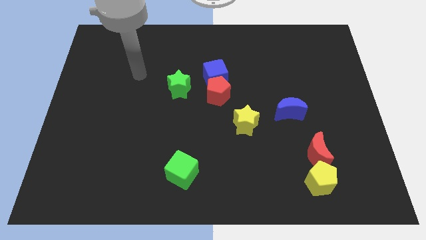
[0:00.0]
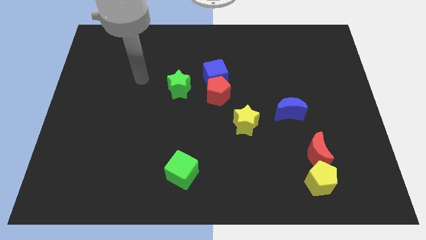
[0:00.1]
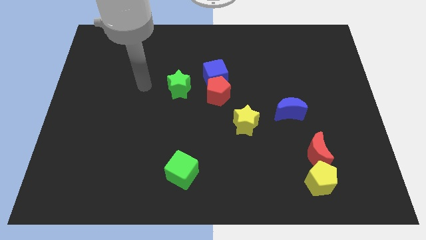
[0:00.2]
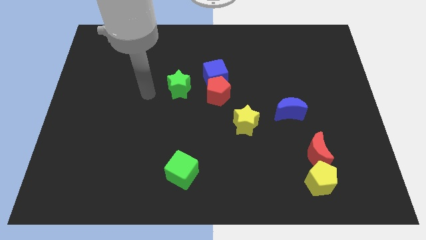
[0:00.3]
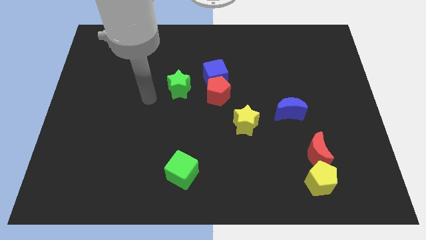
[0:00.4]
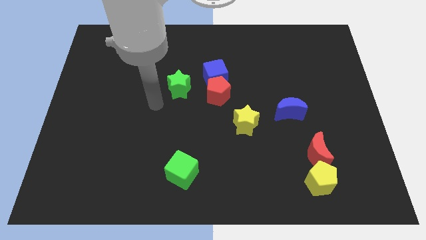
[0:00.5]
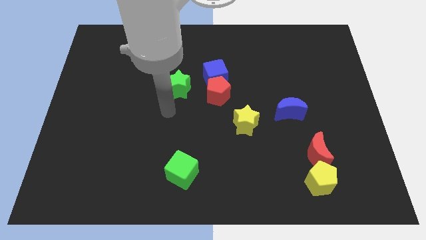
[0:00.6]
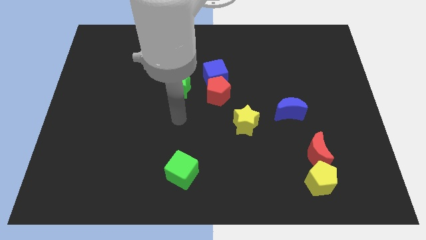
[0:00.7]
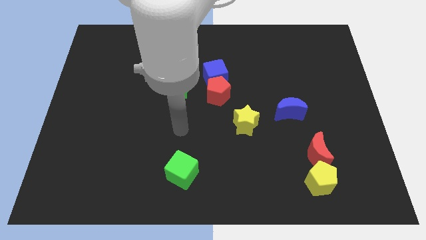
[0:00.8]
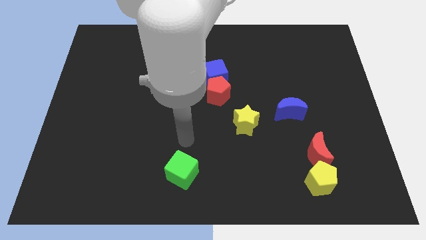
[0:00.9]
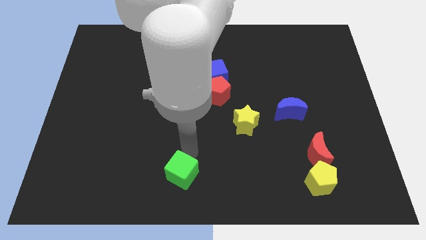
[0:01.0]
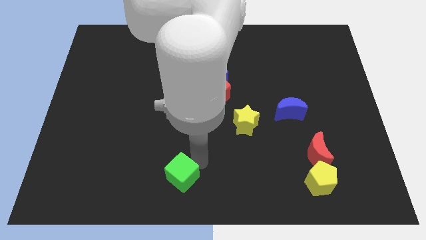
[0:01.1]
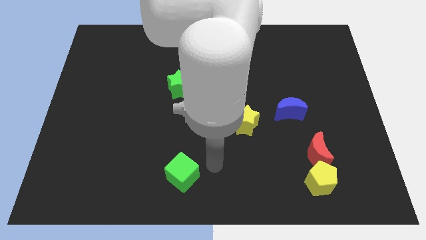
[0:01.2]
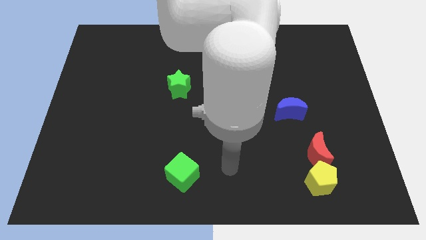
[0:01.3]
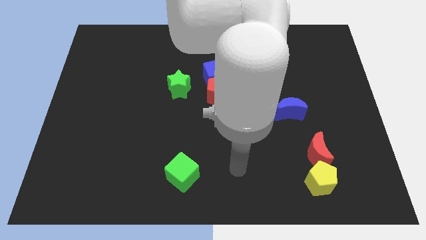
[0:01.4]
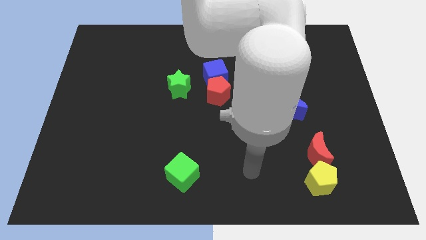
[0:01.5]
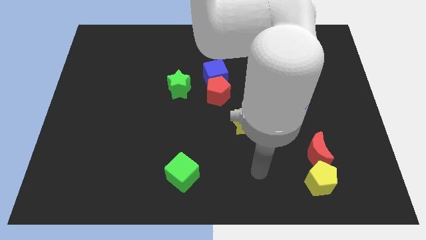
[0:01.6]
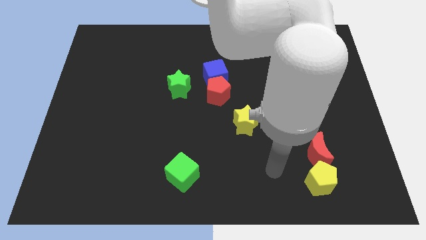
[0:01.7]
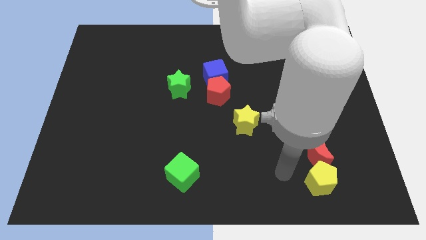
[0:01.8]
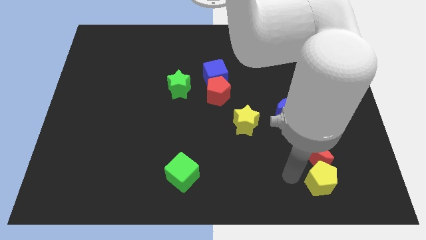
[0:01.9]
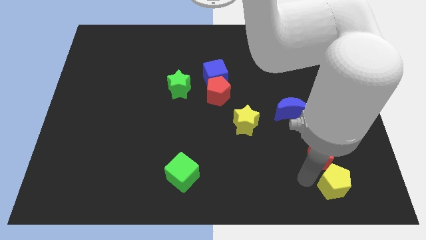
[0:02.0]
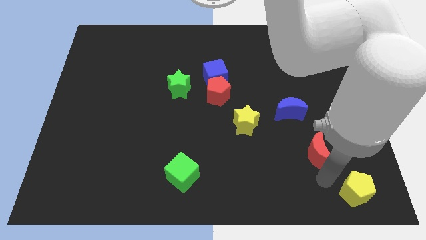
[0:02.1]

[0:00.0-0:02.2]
pull the red moon apart from the yellow pentagon

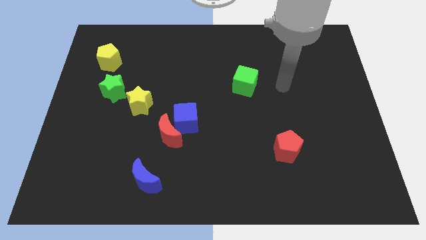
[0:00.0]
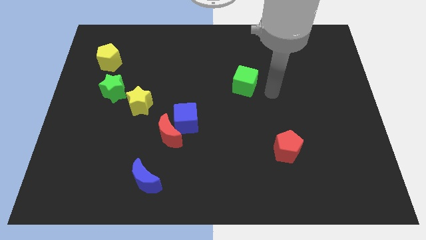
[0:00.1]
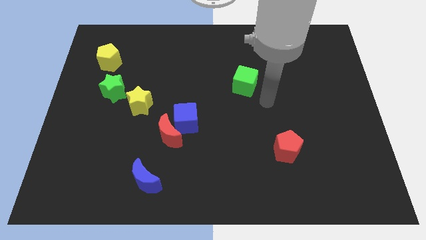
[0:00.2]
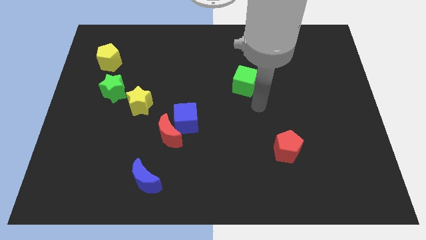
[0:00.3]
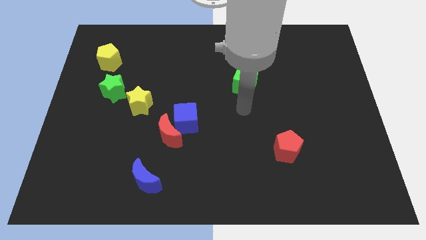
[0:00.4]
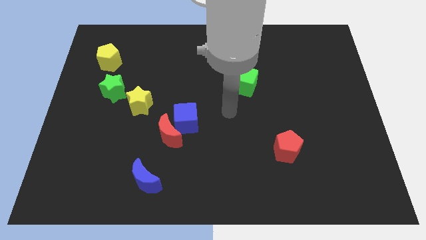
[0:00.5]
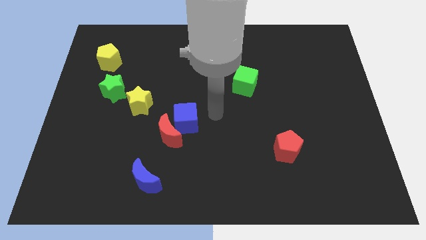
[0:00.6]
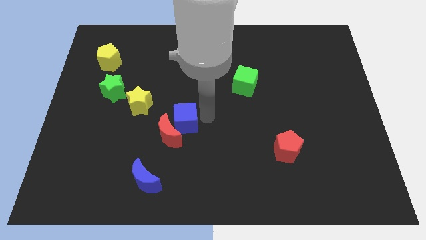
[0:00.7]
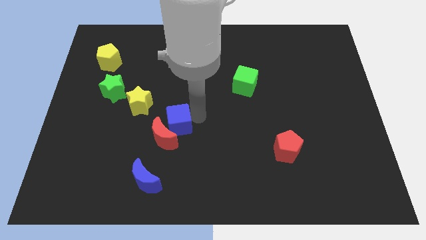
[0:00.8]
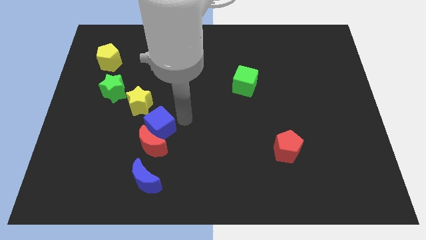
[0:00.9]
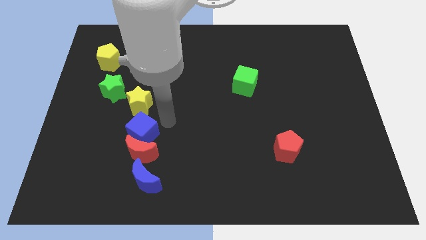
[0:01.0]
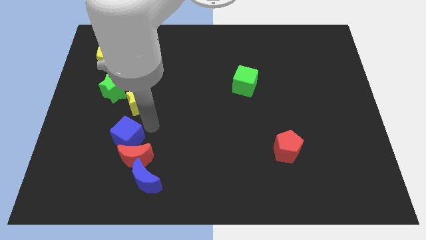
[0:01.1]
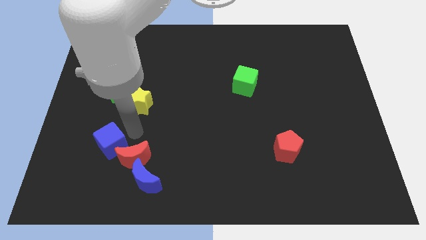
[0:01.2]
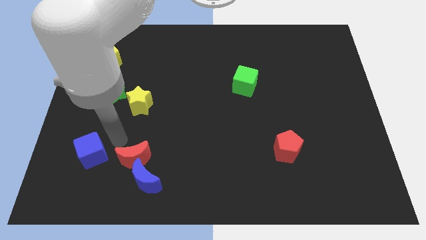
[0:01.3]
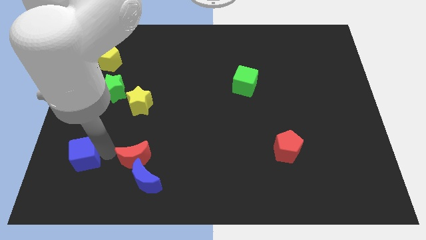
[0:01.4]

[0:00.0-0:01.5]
pull the red moon apart from the blue cube

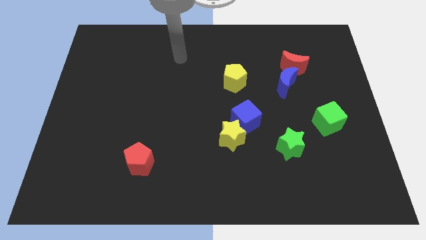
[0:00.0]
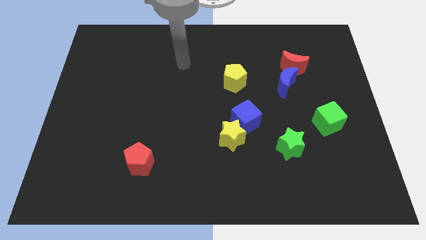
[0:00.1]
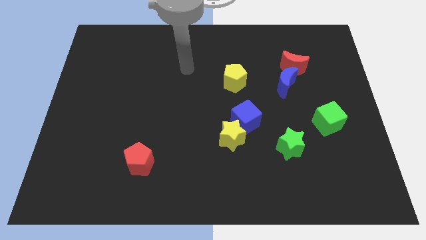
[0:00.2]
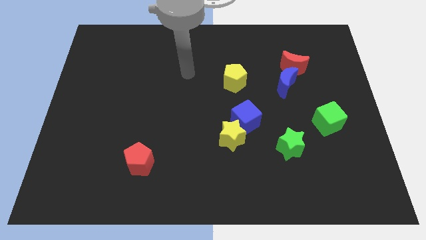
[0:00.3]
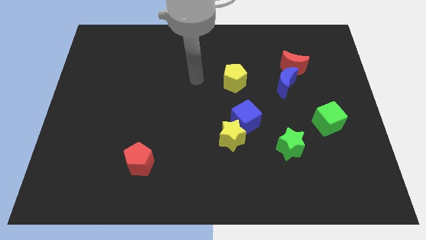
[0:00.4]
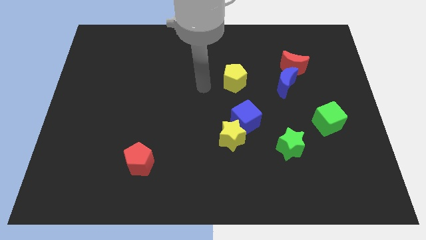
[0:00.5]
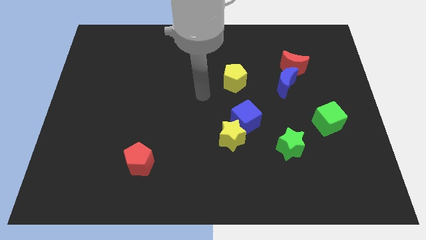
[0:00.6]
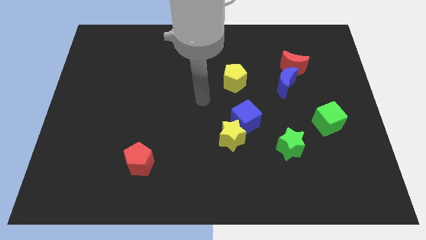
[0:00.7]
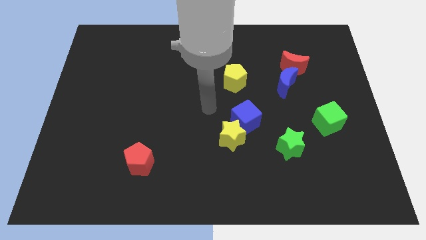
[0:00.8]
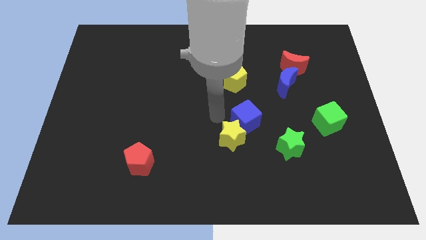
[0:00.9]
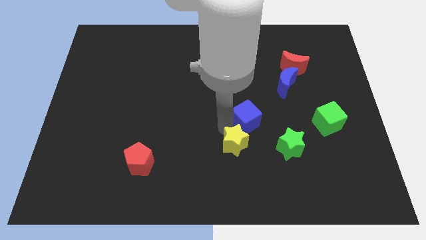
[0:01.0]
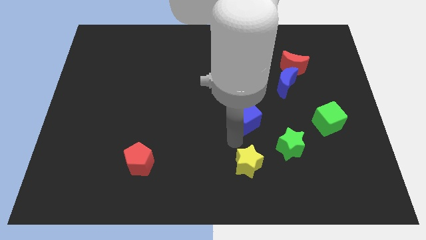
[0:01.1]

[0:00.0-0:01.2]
pull the blue cube apart from the yellow star

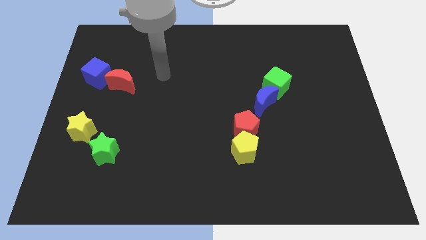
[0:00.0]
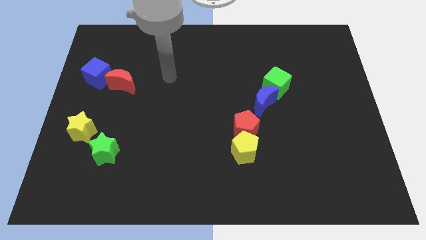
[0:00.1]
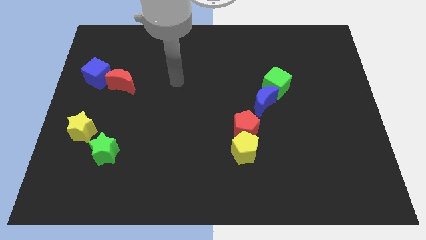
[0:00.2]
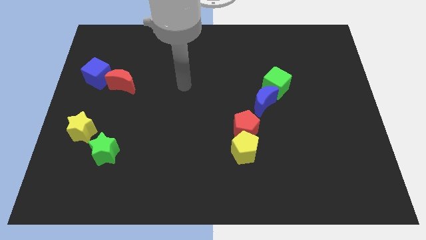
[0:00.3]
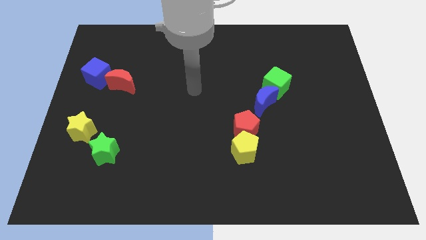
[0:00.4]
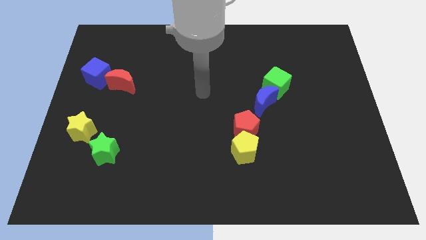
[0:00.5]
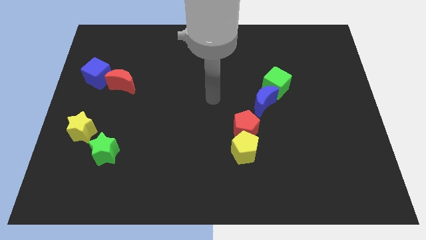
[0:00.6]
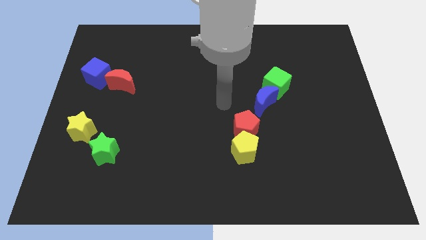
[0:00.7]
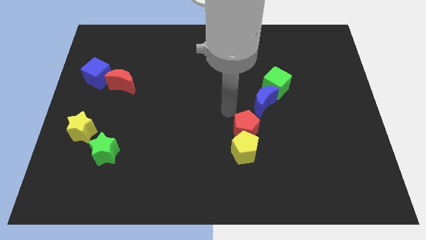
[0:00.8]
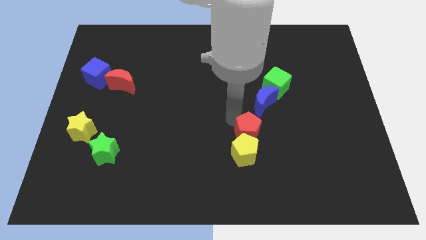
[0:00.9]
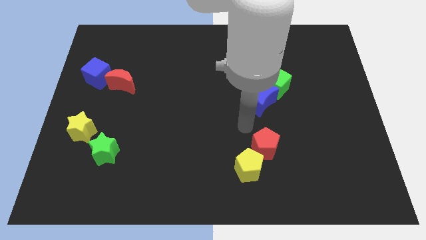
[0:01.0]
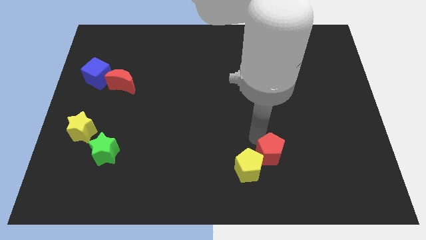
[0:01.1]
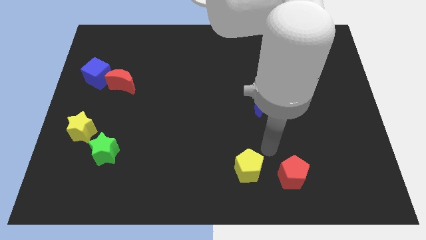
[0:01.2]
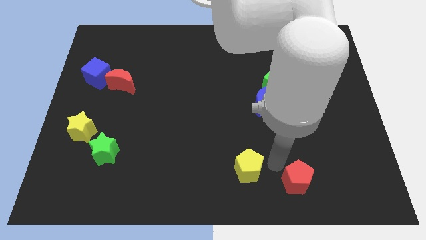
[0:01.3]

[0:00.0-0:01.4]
move the yellow pentagon away from the red pentagon

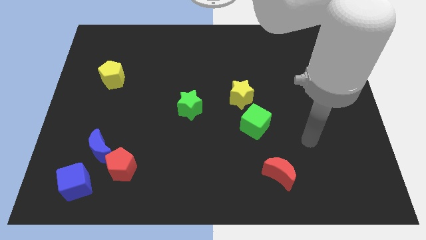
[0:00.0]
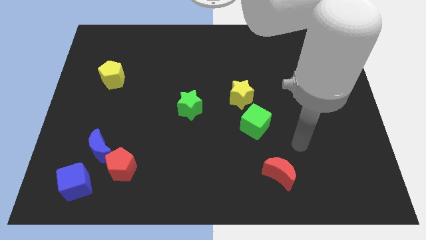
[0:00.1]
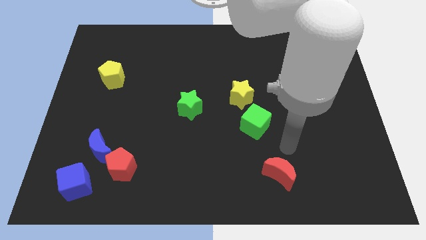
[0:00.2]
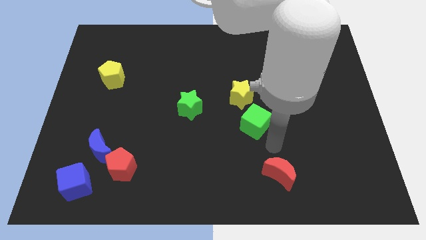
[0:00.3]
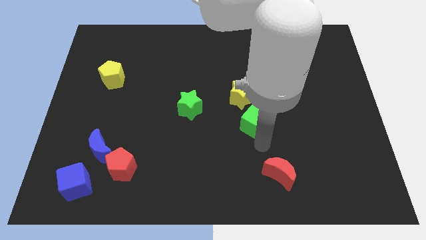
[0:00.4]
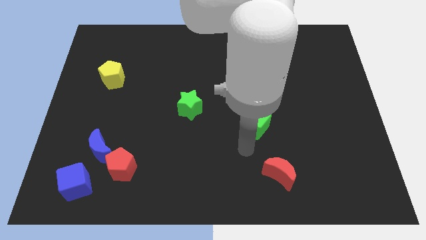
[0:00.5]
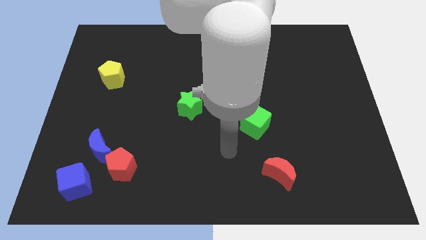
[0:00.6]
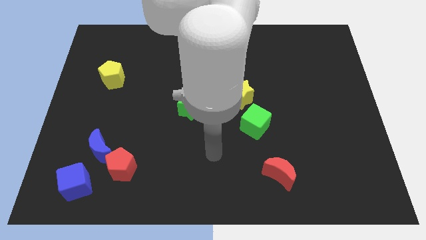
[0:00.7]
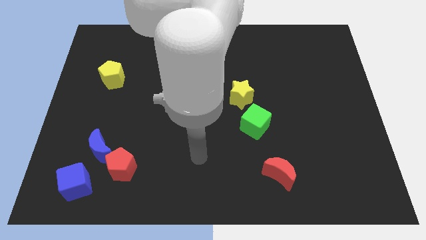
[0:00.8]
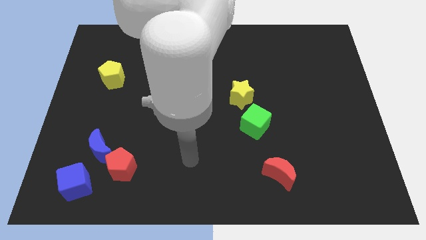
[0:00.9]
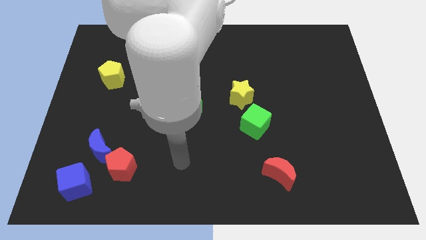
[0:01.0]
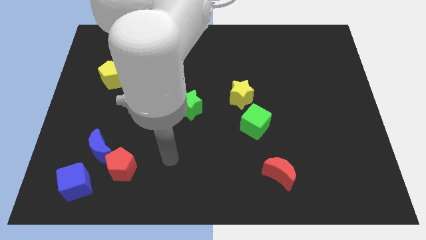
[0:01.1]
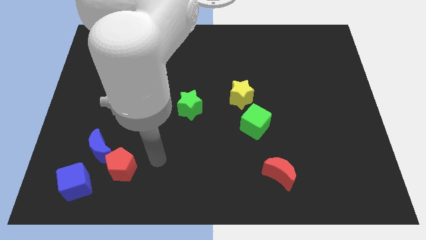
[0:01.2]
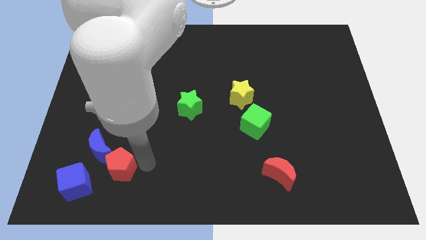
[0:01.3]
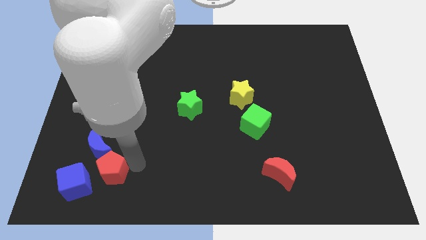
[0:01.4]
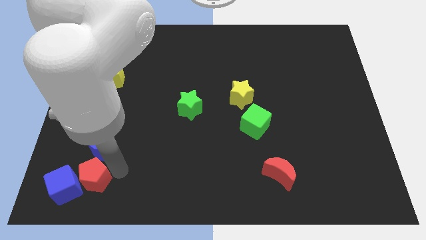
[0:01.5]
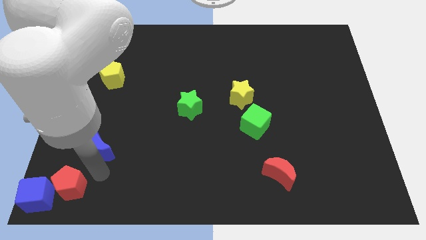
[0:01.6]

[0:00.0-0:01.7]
separate the blue moon from the red pentagon and blue cube

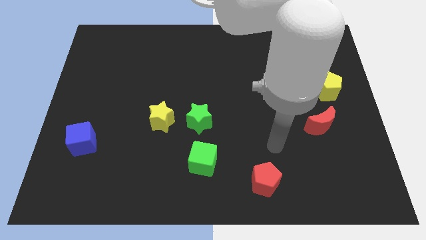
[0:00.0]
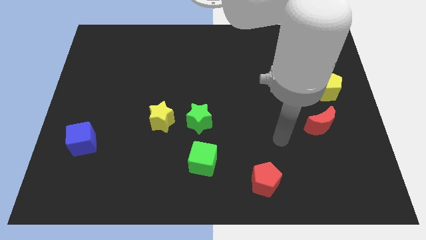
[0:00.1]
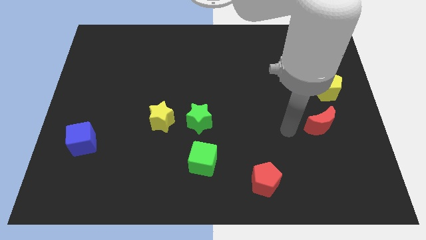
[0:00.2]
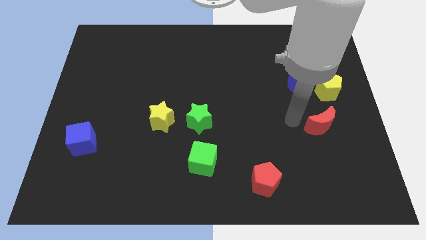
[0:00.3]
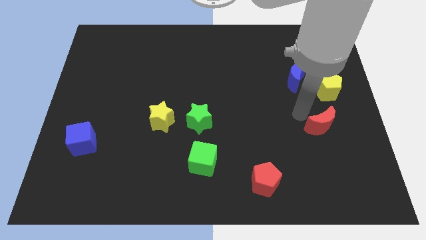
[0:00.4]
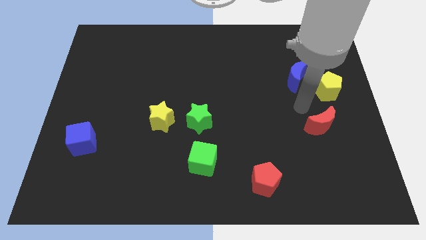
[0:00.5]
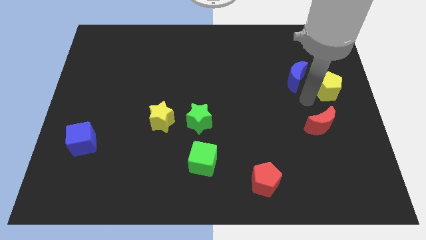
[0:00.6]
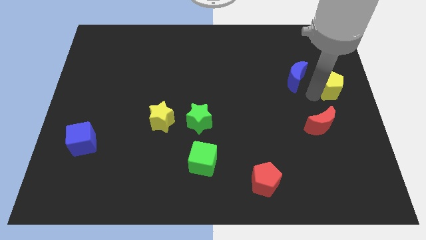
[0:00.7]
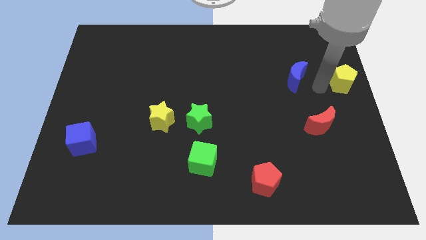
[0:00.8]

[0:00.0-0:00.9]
move the blue moon away from the yellow pentagon

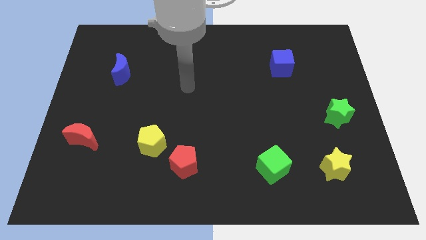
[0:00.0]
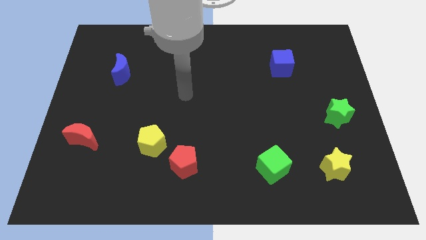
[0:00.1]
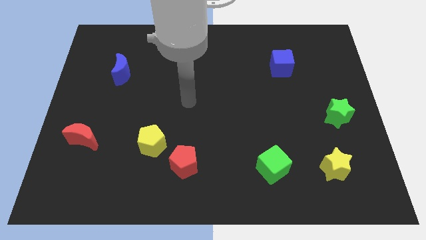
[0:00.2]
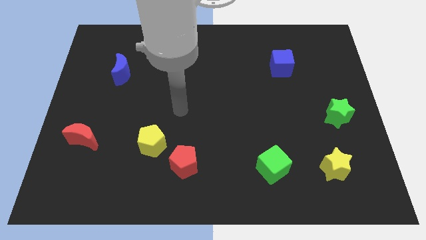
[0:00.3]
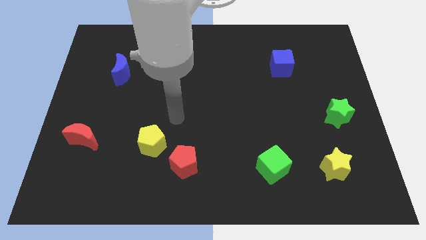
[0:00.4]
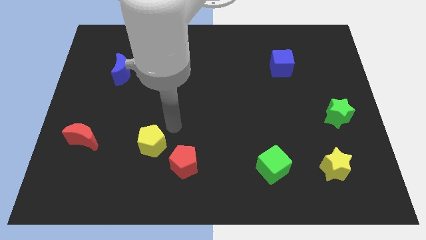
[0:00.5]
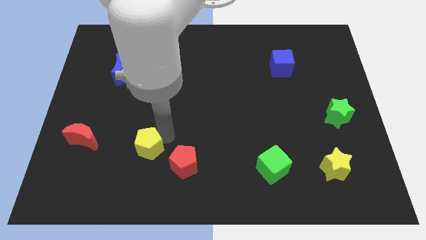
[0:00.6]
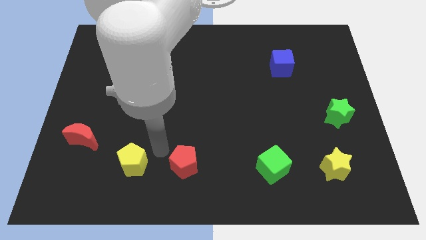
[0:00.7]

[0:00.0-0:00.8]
move the red pentagon away from the yellow pentagon
